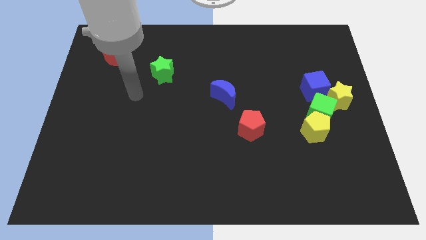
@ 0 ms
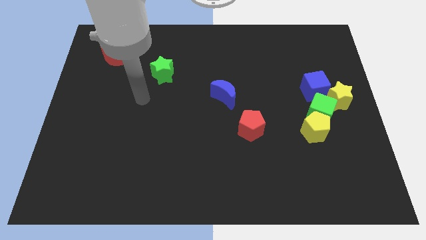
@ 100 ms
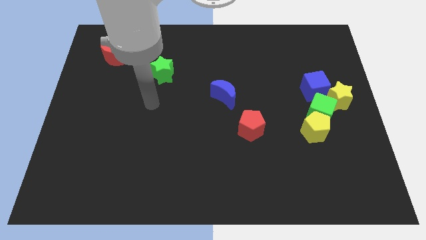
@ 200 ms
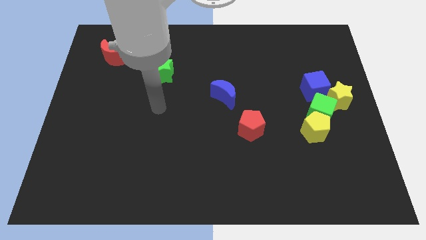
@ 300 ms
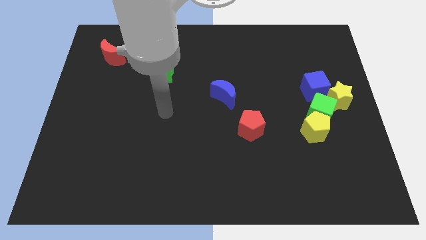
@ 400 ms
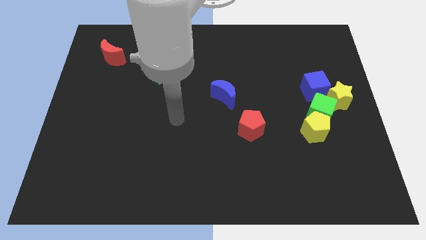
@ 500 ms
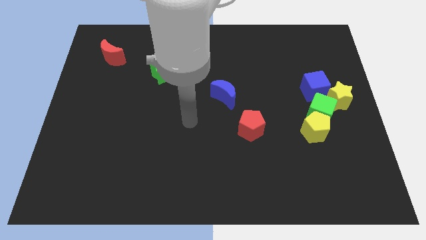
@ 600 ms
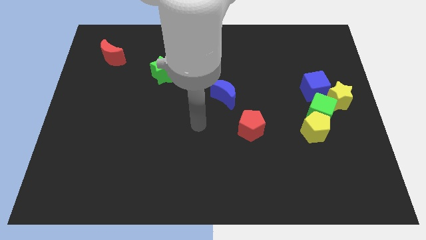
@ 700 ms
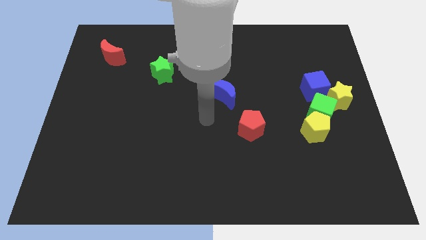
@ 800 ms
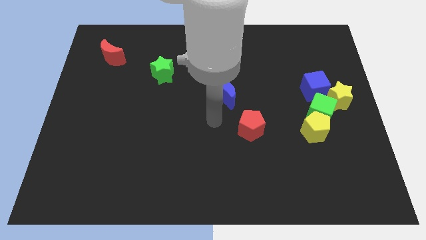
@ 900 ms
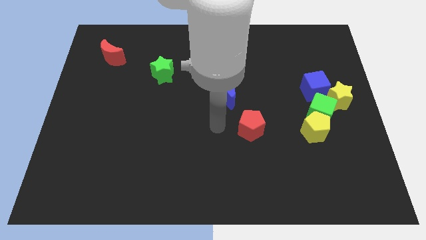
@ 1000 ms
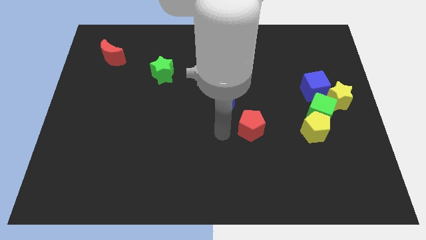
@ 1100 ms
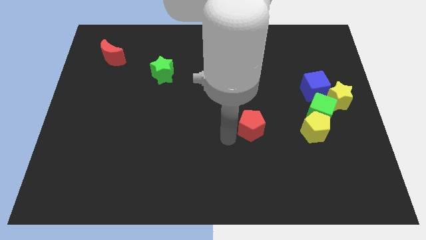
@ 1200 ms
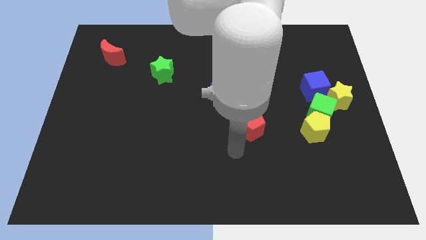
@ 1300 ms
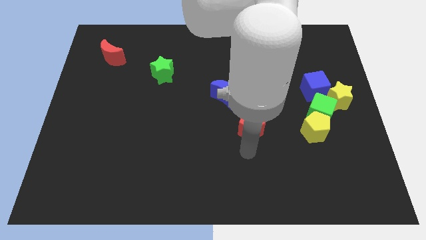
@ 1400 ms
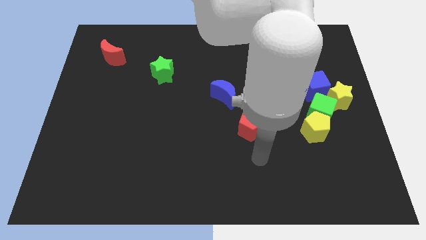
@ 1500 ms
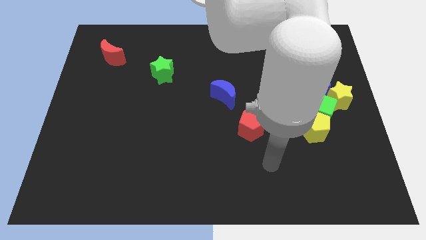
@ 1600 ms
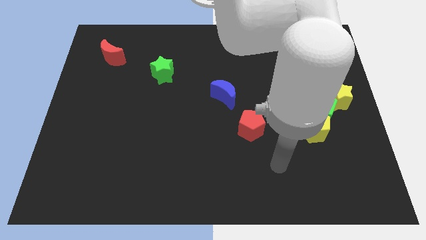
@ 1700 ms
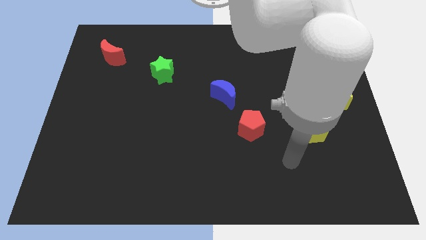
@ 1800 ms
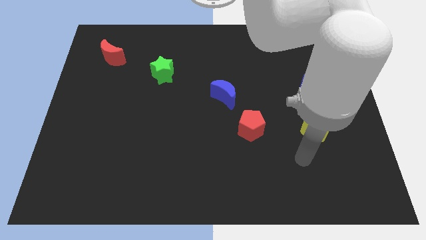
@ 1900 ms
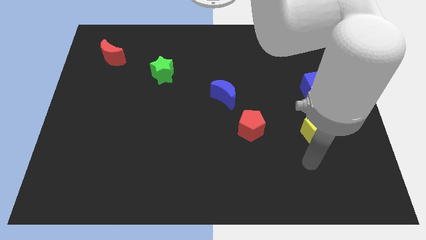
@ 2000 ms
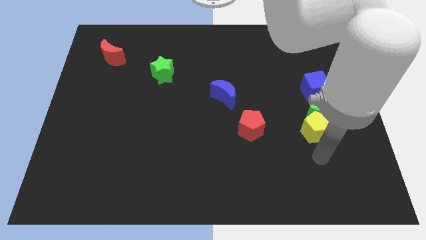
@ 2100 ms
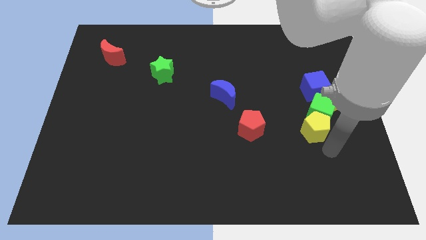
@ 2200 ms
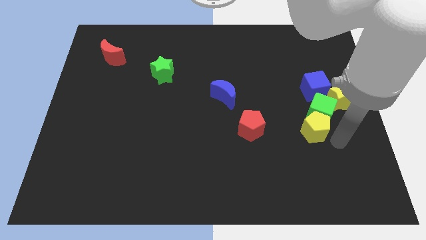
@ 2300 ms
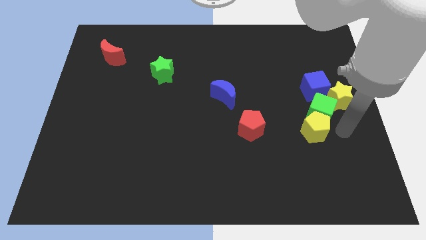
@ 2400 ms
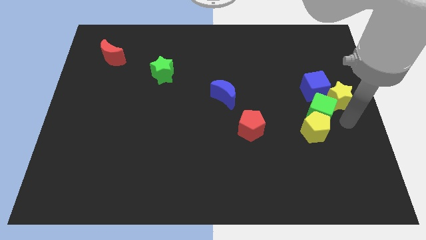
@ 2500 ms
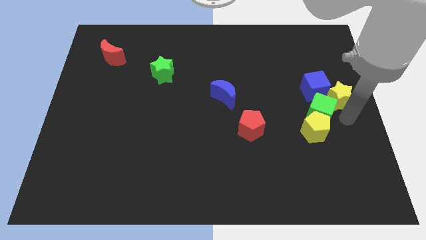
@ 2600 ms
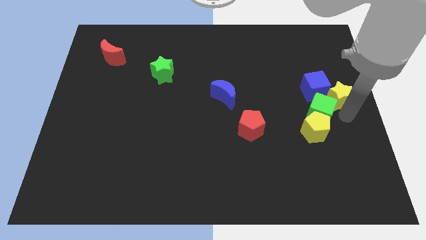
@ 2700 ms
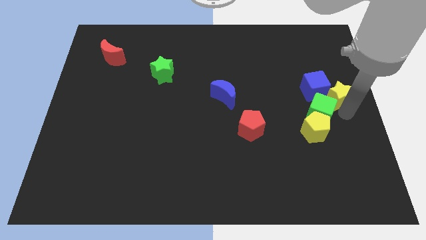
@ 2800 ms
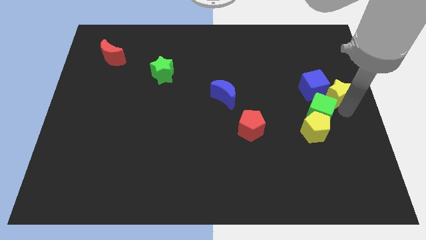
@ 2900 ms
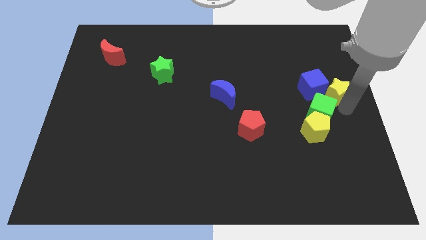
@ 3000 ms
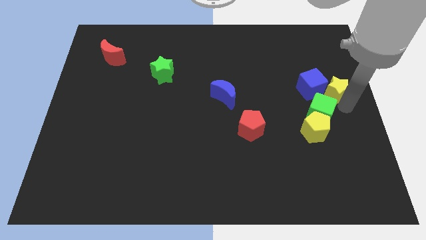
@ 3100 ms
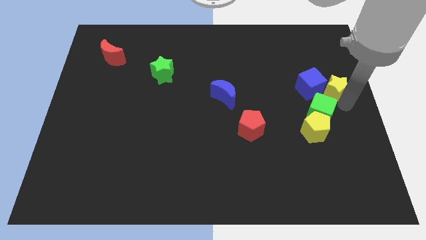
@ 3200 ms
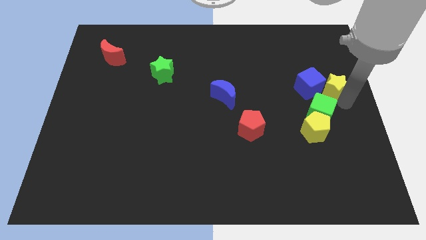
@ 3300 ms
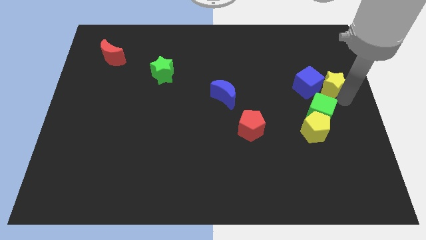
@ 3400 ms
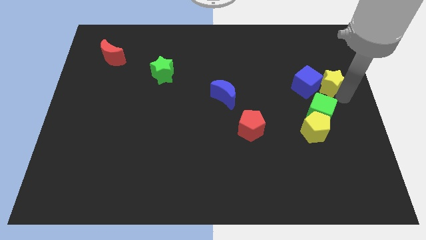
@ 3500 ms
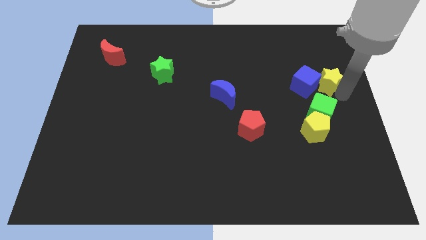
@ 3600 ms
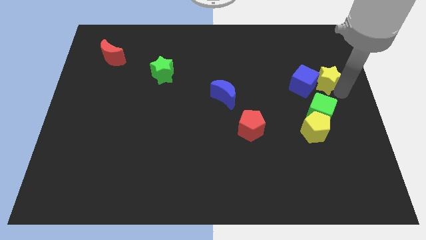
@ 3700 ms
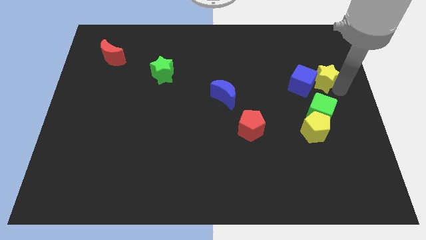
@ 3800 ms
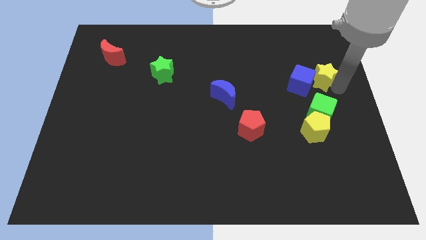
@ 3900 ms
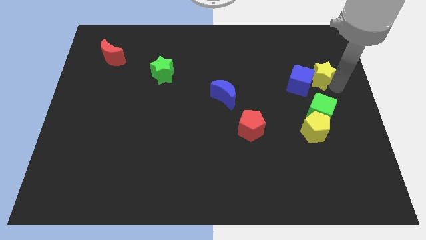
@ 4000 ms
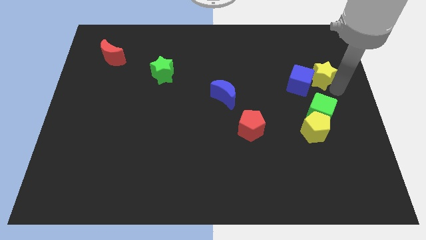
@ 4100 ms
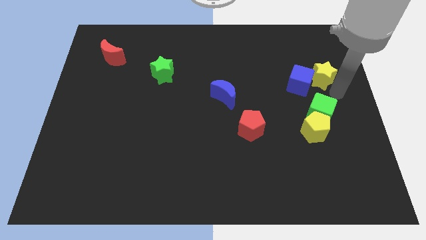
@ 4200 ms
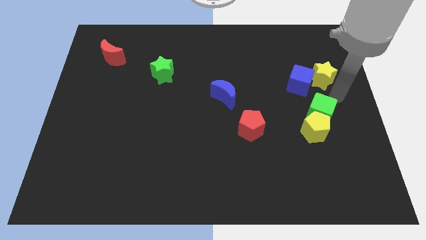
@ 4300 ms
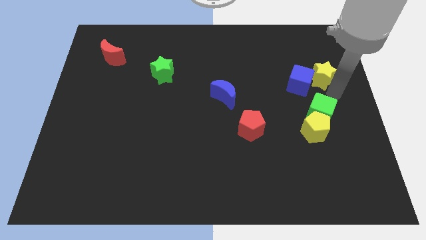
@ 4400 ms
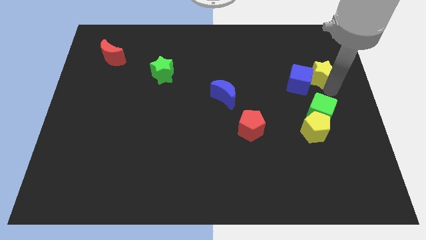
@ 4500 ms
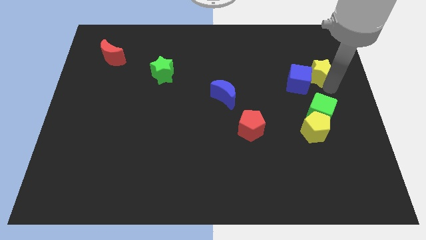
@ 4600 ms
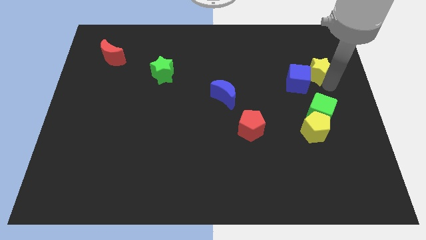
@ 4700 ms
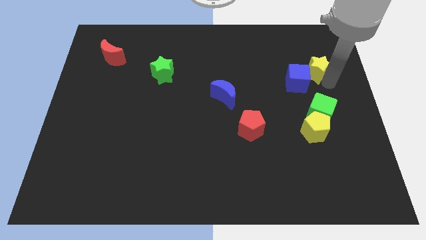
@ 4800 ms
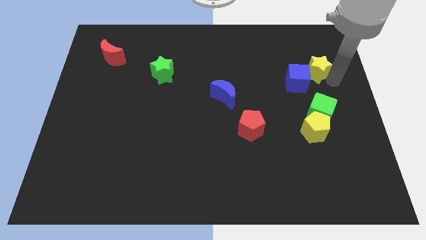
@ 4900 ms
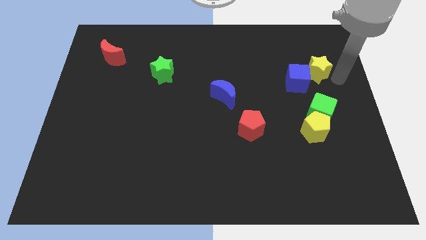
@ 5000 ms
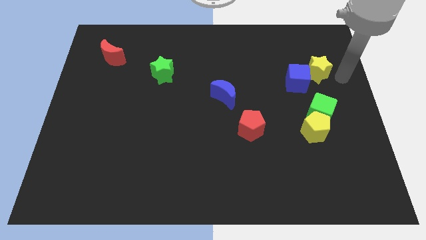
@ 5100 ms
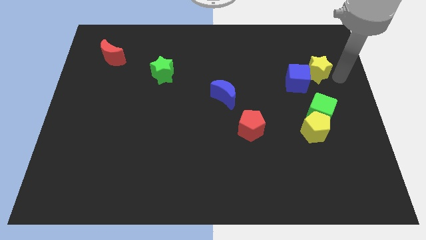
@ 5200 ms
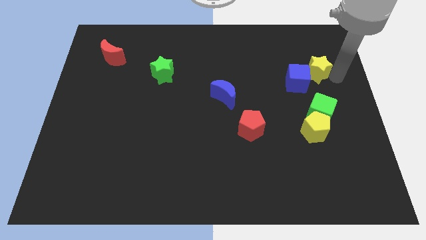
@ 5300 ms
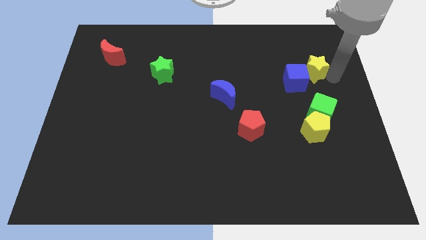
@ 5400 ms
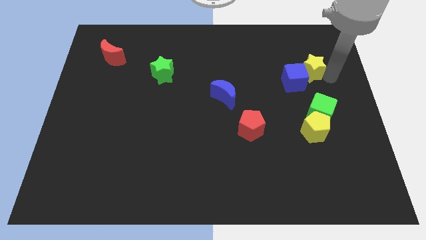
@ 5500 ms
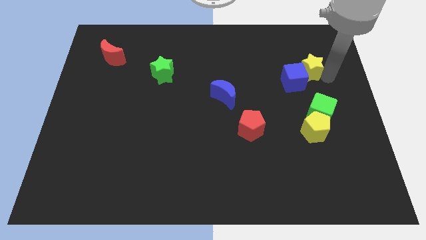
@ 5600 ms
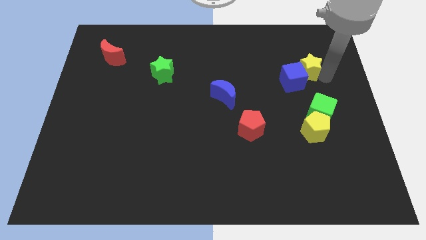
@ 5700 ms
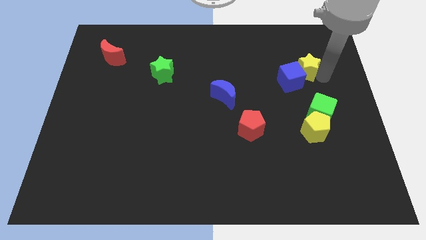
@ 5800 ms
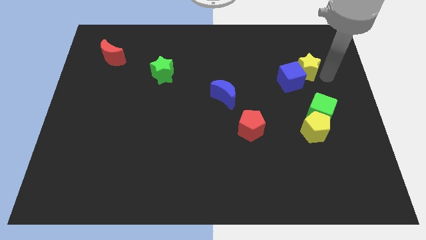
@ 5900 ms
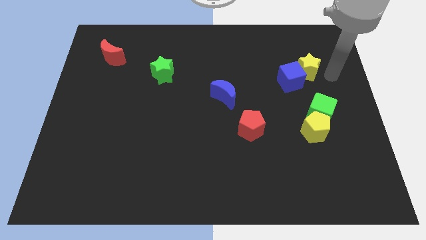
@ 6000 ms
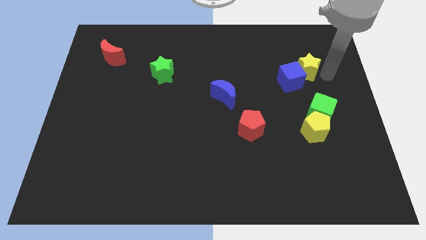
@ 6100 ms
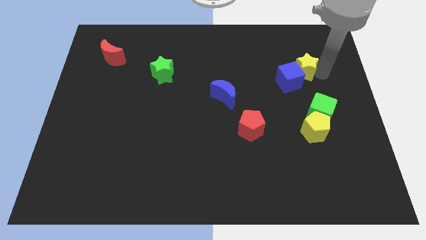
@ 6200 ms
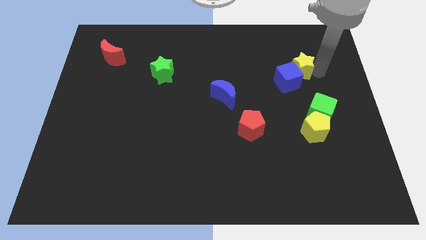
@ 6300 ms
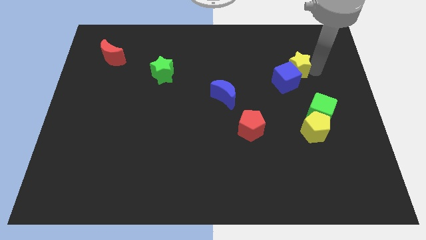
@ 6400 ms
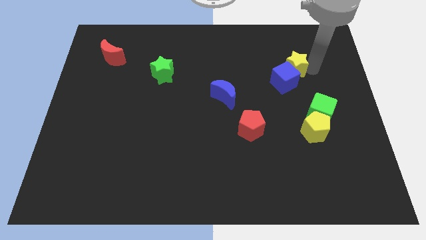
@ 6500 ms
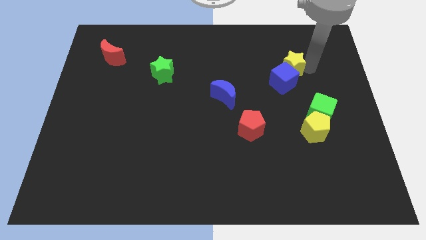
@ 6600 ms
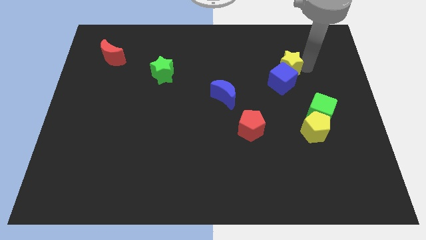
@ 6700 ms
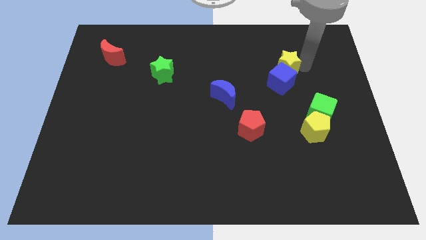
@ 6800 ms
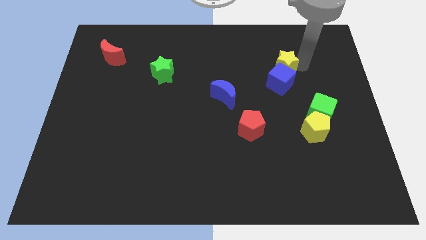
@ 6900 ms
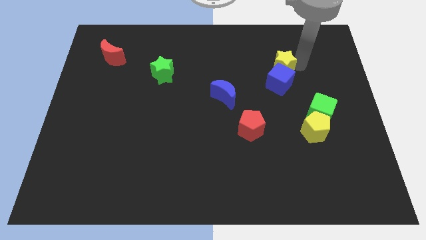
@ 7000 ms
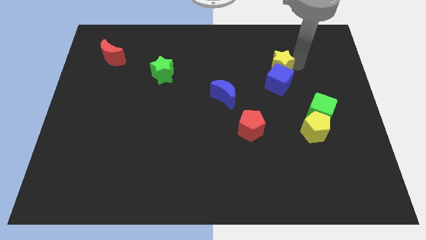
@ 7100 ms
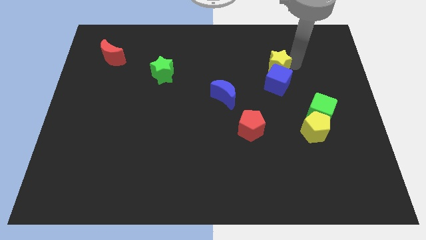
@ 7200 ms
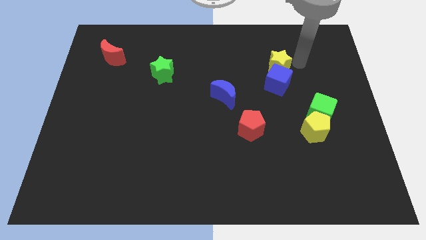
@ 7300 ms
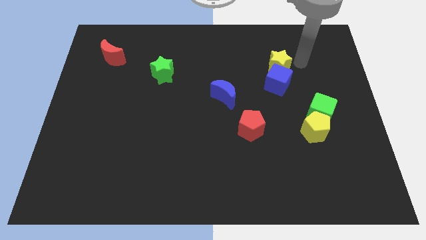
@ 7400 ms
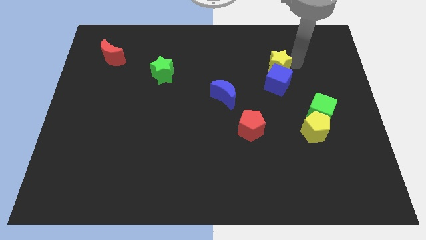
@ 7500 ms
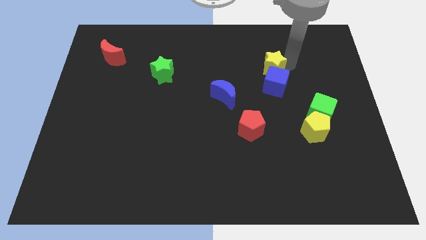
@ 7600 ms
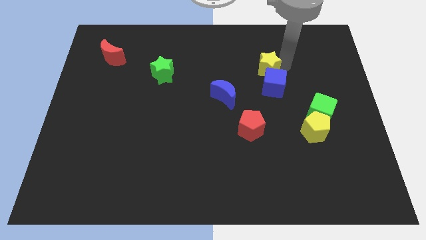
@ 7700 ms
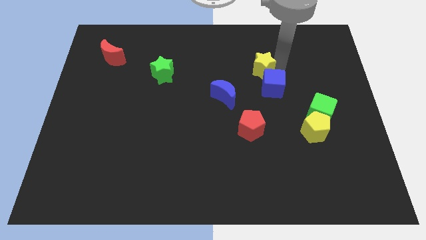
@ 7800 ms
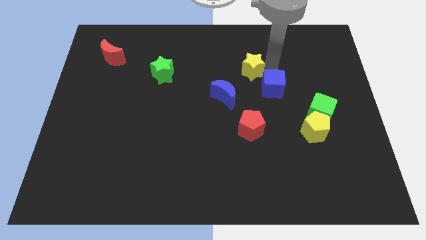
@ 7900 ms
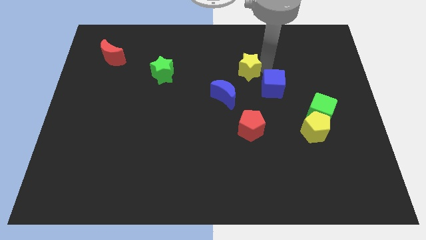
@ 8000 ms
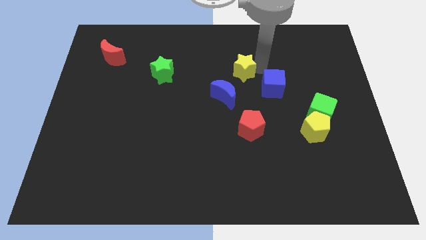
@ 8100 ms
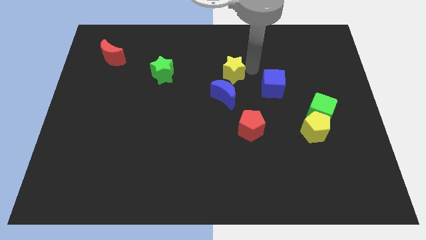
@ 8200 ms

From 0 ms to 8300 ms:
push the yellow star left

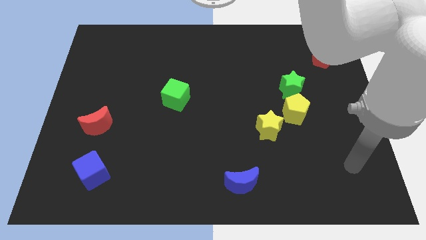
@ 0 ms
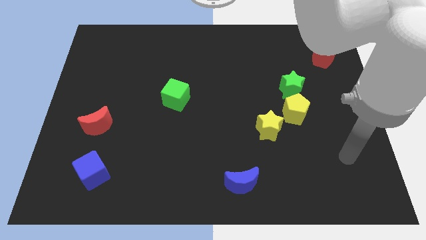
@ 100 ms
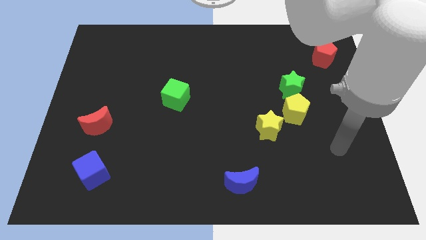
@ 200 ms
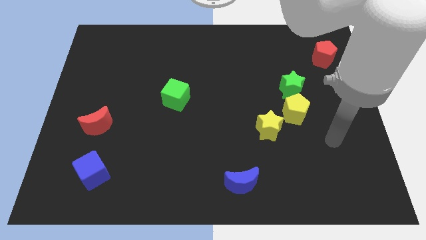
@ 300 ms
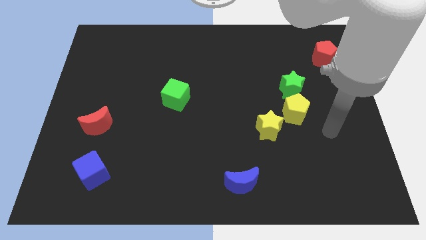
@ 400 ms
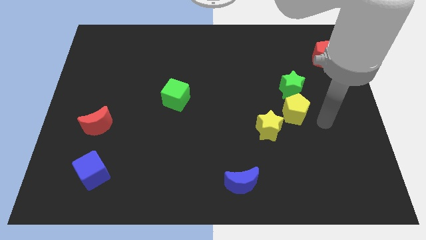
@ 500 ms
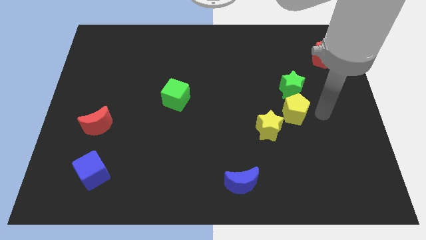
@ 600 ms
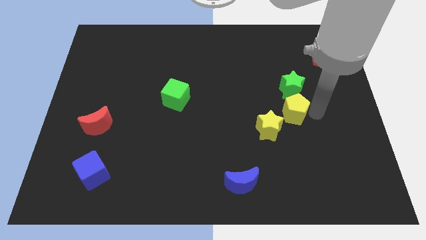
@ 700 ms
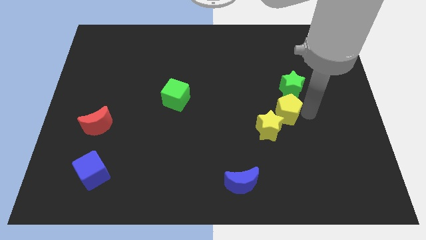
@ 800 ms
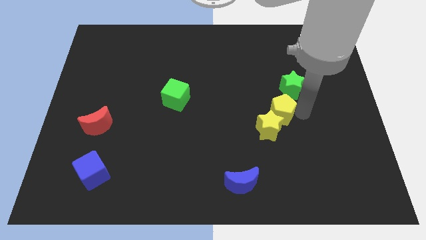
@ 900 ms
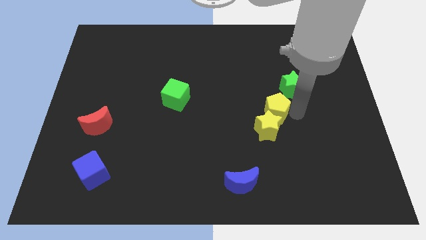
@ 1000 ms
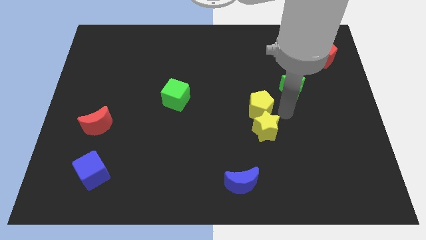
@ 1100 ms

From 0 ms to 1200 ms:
push the yellow pentagon somewhat left
